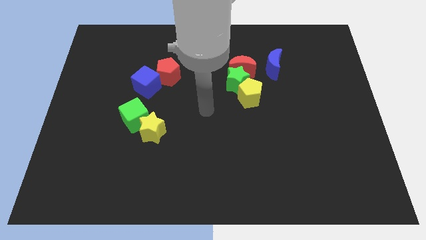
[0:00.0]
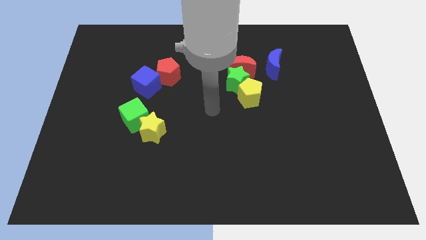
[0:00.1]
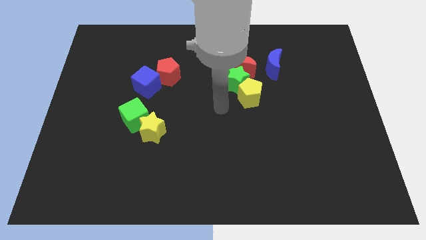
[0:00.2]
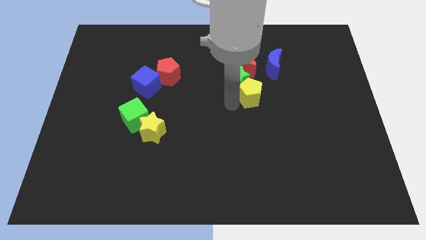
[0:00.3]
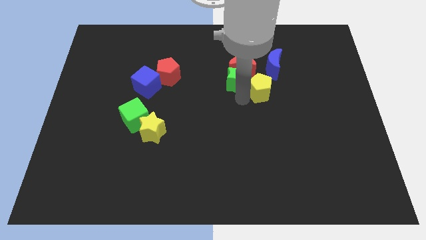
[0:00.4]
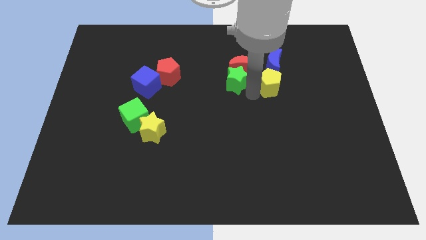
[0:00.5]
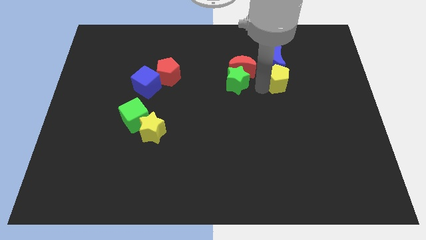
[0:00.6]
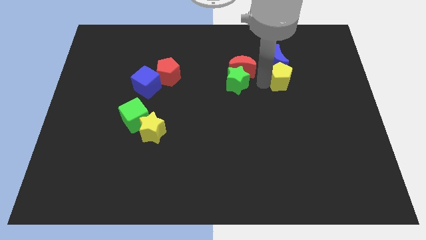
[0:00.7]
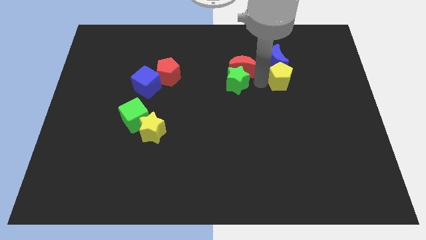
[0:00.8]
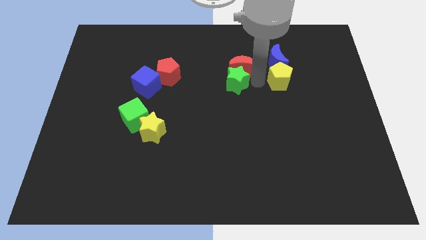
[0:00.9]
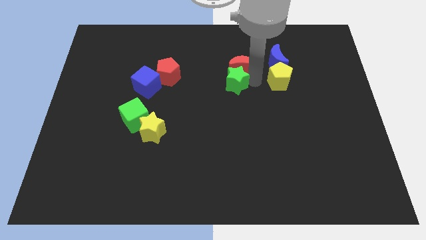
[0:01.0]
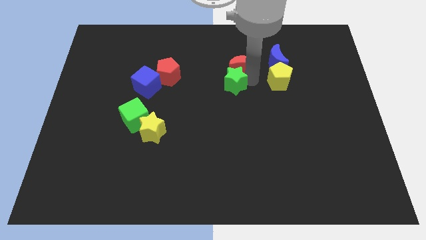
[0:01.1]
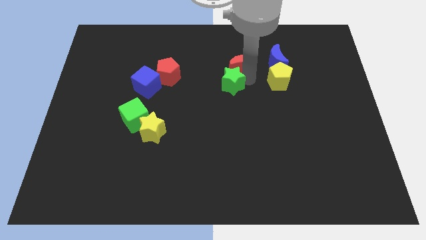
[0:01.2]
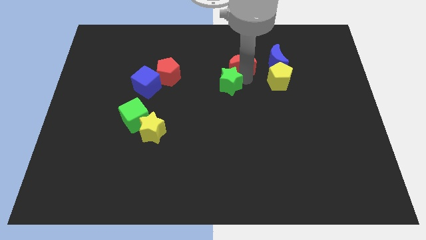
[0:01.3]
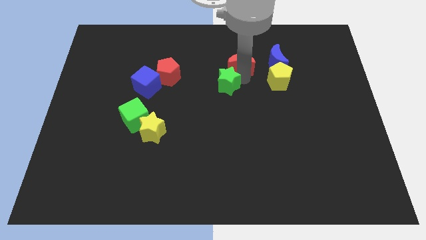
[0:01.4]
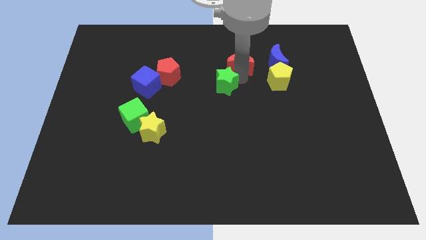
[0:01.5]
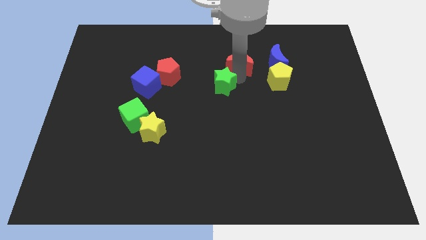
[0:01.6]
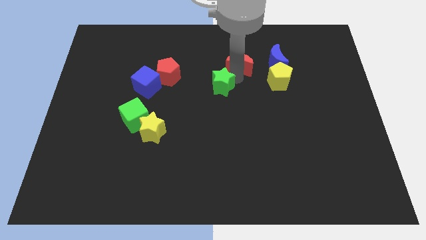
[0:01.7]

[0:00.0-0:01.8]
move the green star away from the red moon and yellow pentagon

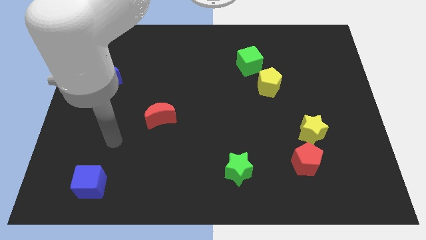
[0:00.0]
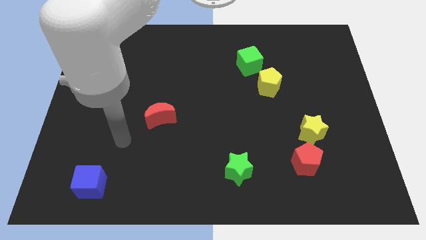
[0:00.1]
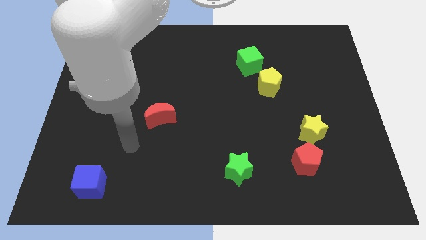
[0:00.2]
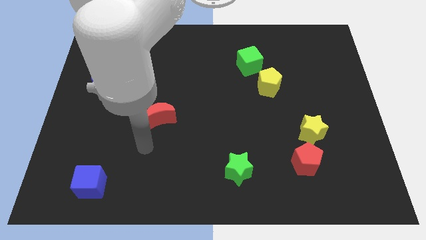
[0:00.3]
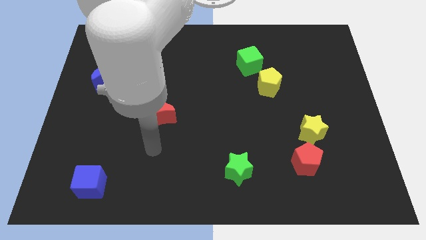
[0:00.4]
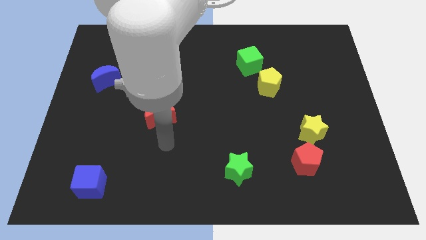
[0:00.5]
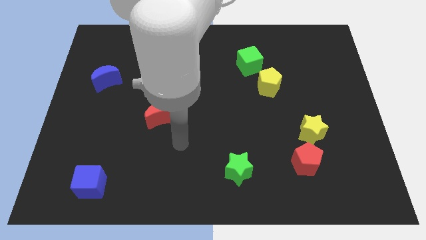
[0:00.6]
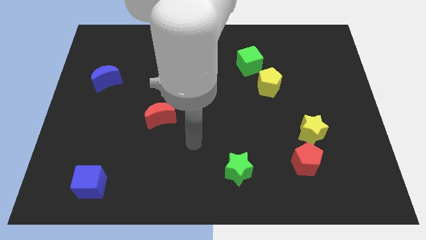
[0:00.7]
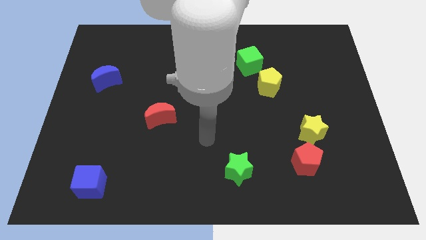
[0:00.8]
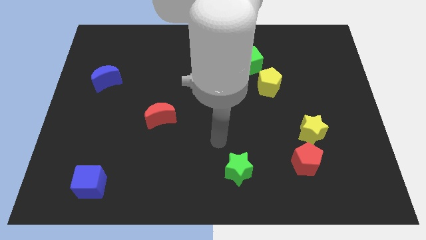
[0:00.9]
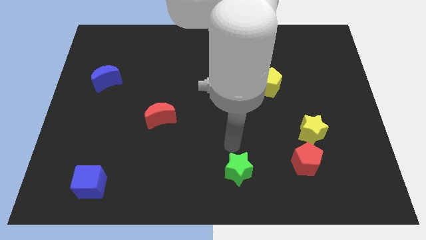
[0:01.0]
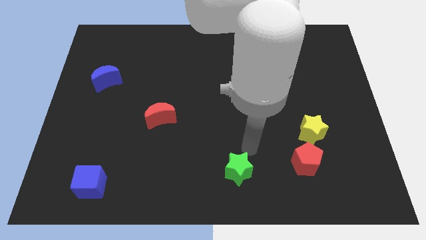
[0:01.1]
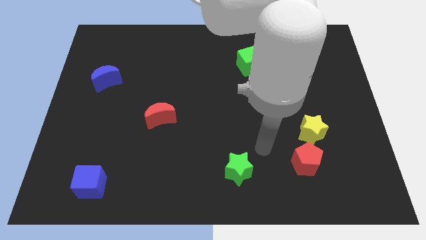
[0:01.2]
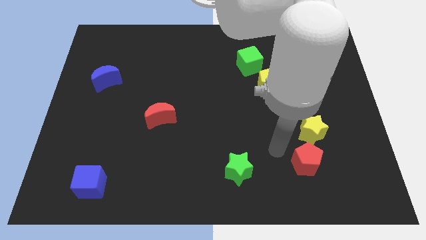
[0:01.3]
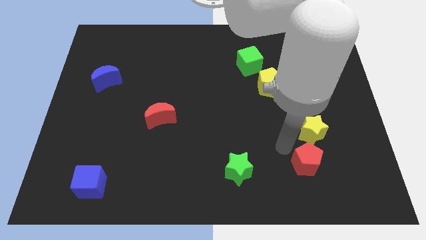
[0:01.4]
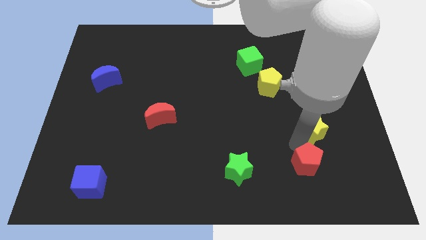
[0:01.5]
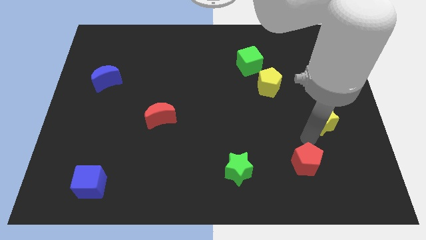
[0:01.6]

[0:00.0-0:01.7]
pull the red pentagon apart from the yellow star

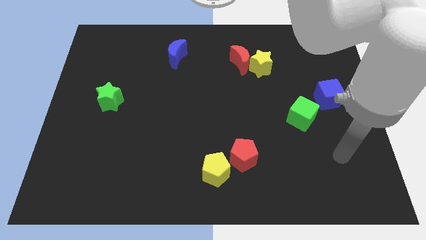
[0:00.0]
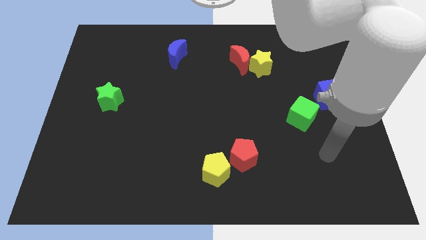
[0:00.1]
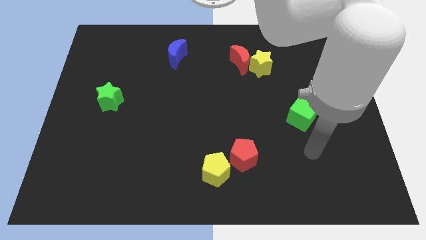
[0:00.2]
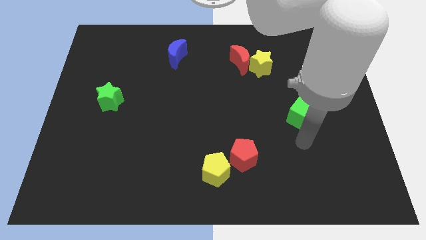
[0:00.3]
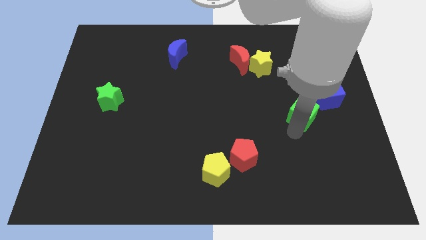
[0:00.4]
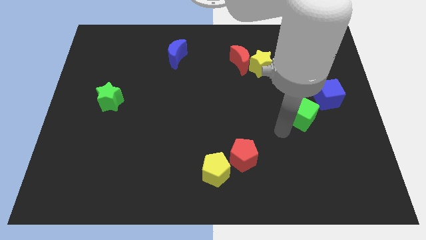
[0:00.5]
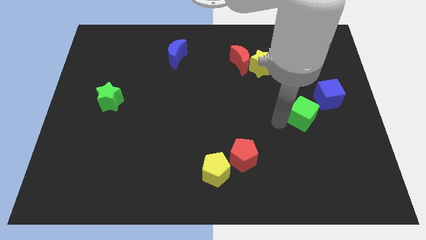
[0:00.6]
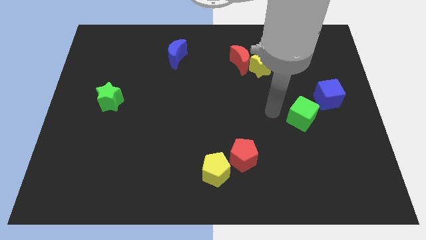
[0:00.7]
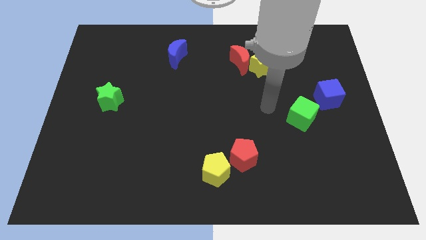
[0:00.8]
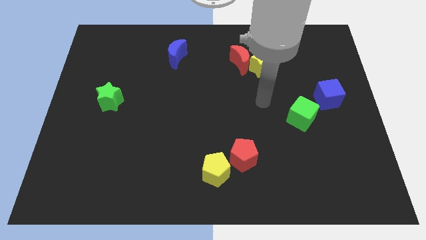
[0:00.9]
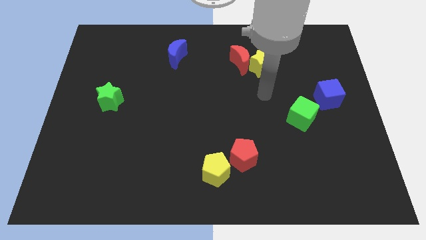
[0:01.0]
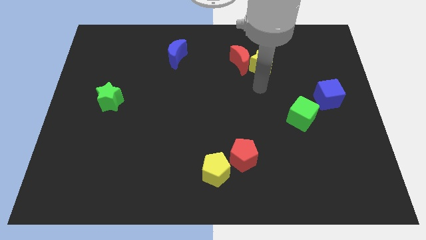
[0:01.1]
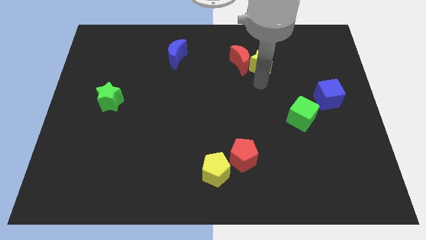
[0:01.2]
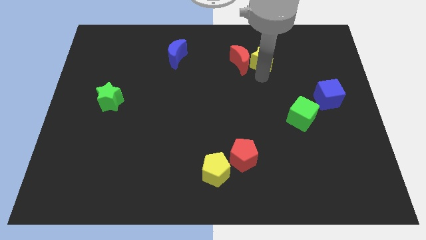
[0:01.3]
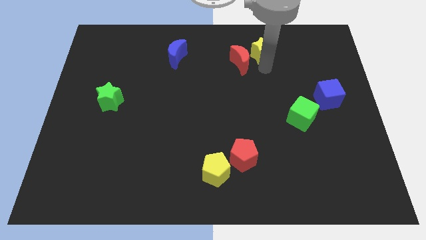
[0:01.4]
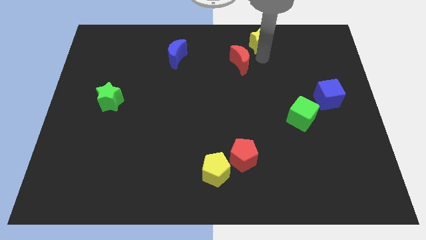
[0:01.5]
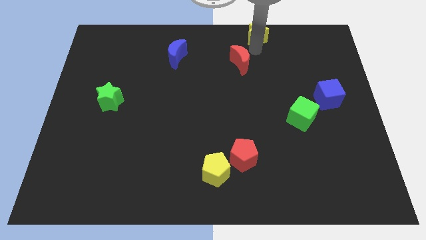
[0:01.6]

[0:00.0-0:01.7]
separate the red moon from the yellow star

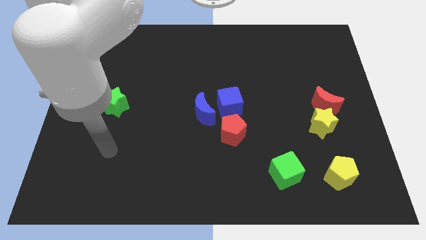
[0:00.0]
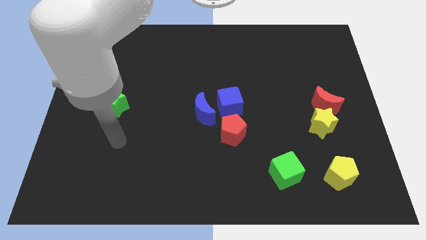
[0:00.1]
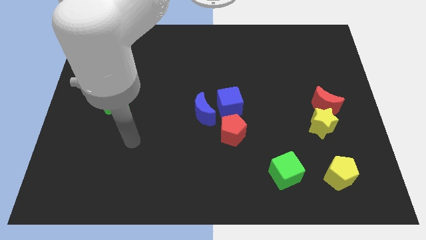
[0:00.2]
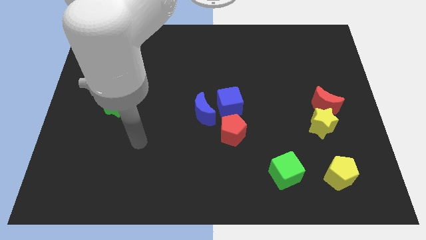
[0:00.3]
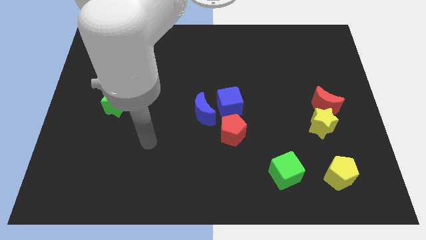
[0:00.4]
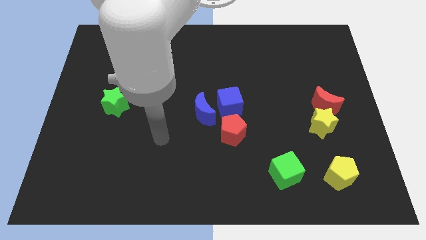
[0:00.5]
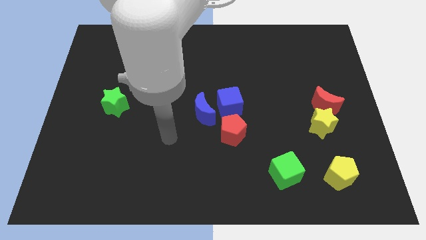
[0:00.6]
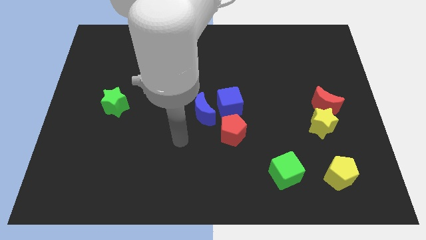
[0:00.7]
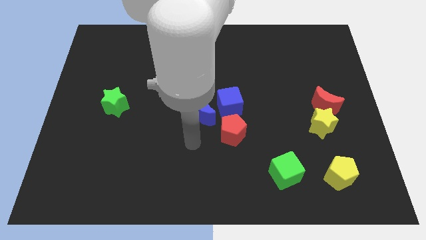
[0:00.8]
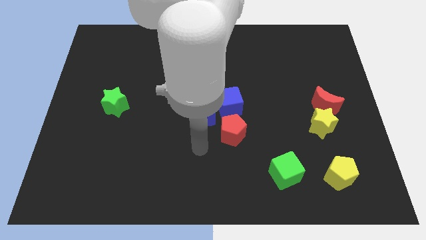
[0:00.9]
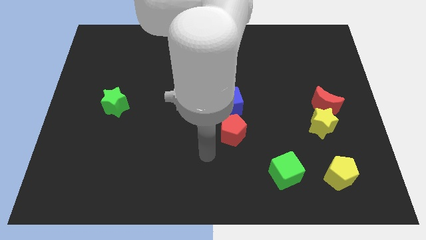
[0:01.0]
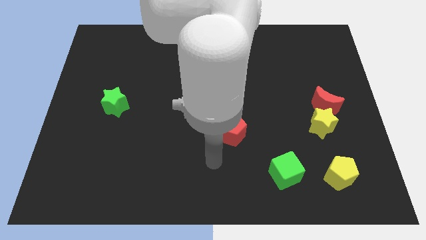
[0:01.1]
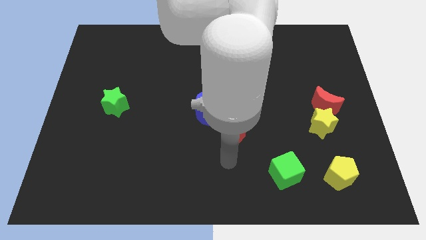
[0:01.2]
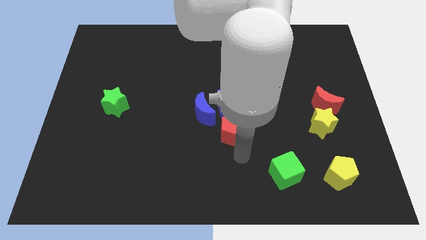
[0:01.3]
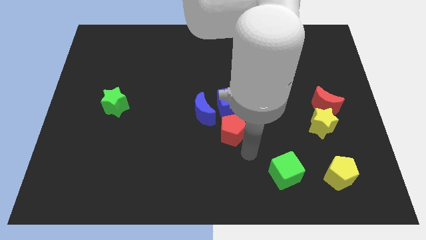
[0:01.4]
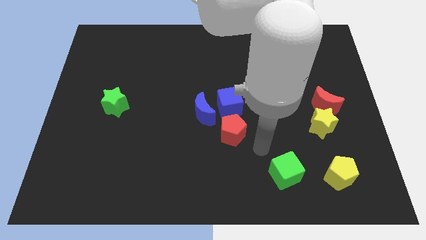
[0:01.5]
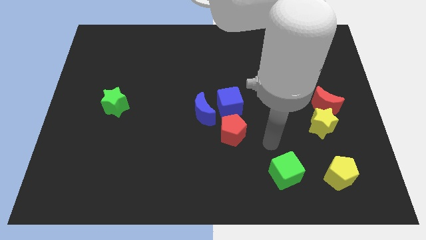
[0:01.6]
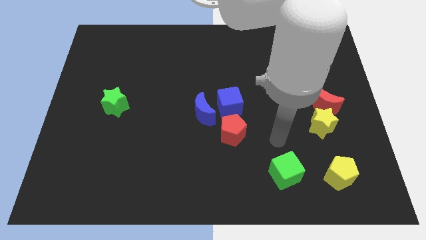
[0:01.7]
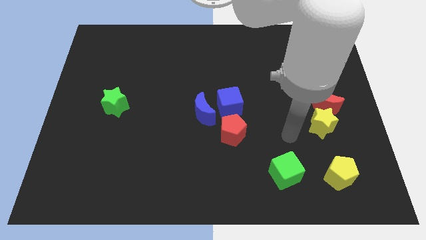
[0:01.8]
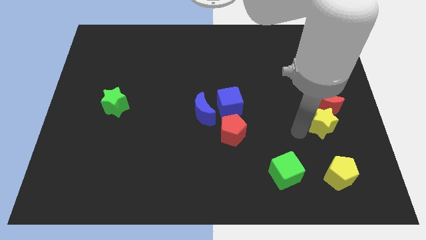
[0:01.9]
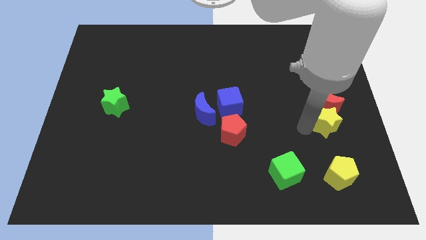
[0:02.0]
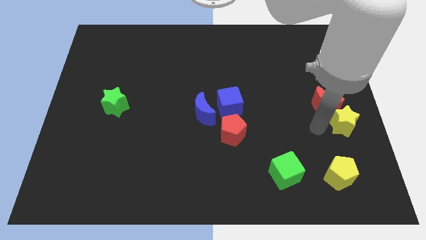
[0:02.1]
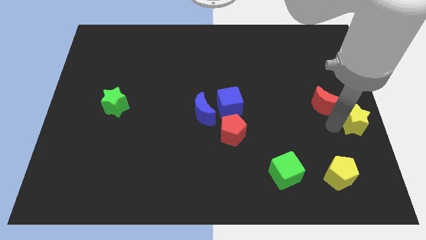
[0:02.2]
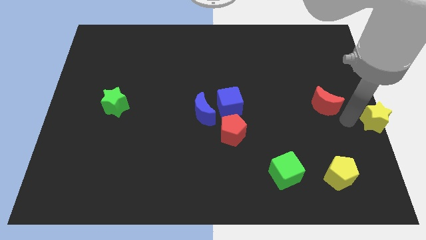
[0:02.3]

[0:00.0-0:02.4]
move the red moon away from the yellow star

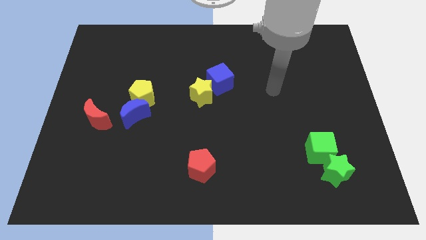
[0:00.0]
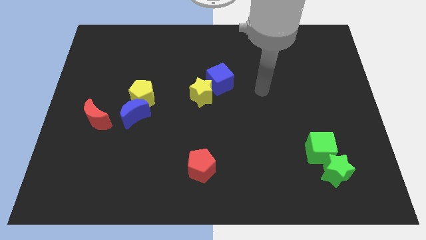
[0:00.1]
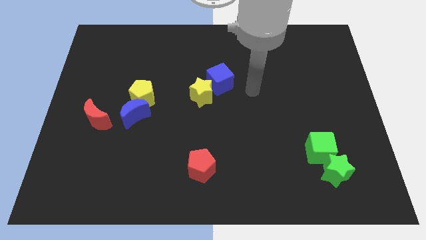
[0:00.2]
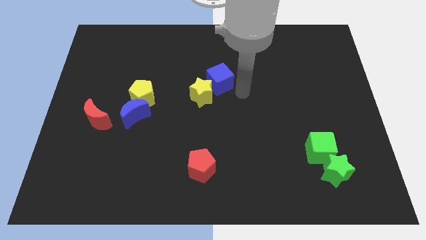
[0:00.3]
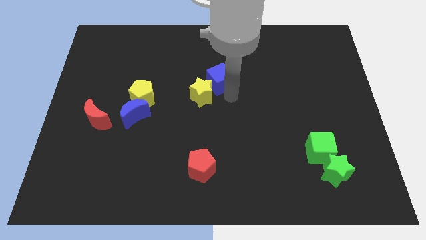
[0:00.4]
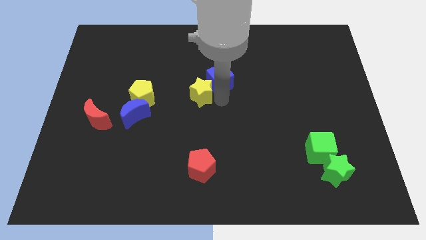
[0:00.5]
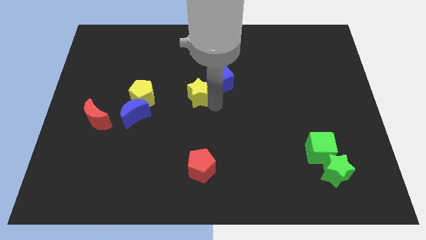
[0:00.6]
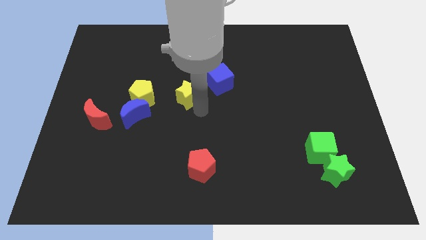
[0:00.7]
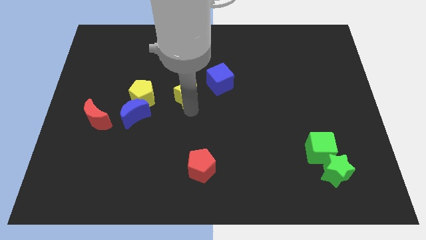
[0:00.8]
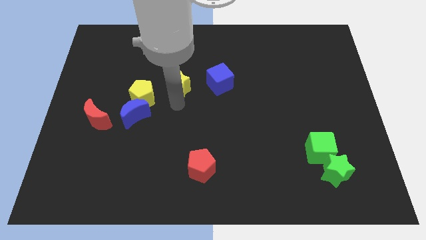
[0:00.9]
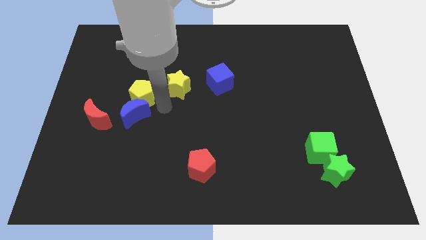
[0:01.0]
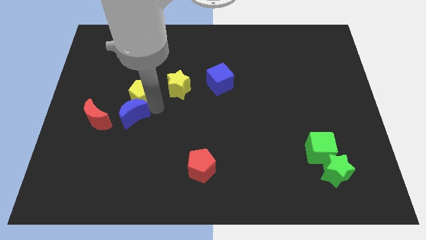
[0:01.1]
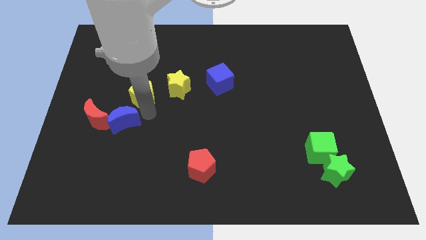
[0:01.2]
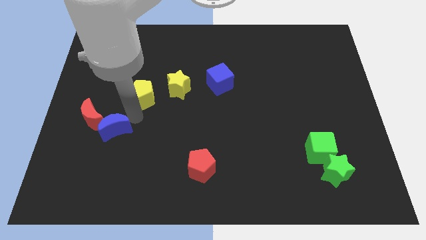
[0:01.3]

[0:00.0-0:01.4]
move the yellow pentagon away from the blue moon

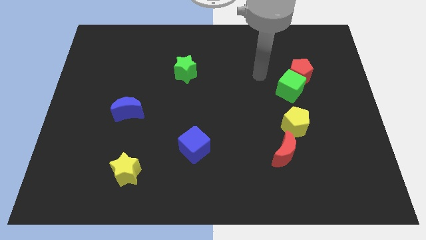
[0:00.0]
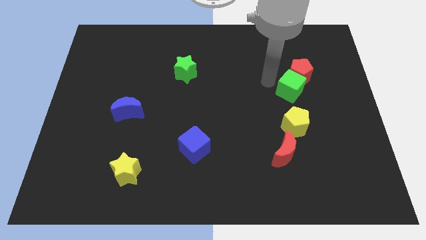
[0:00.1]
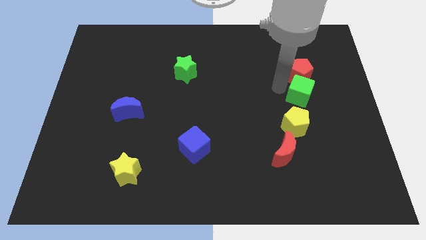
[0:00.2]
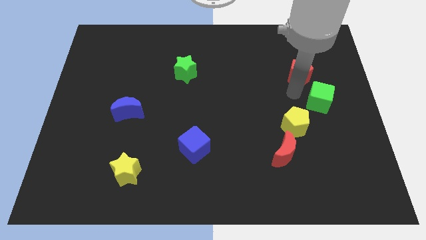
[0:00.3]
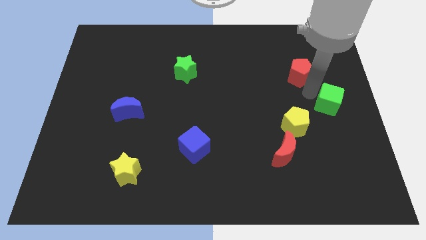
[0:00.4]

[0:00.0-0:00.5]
move the red pentagon away from the green cube
